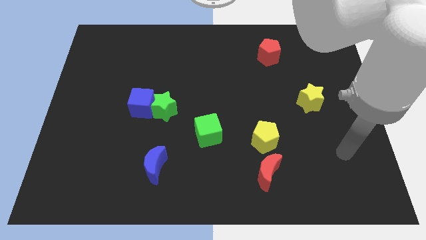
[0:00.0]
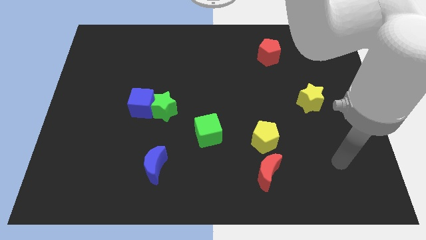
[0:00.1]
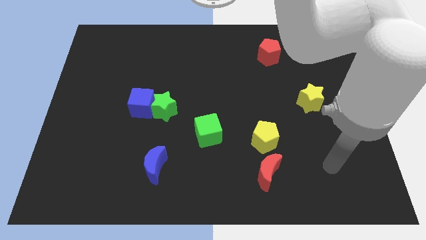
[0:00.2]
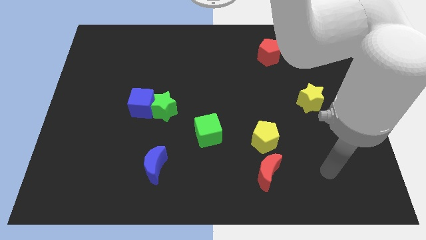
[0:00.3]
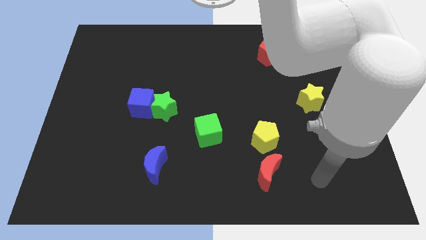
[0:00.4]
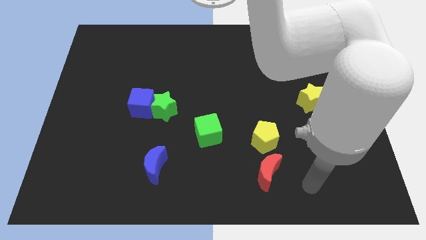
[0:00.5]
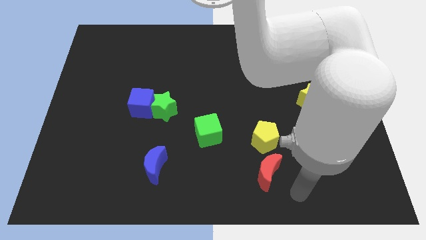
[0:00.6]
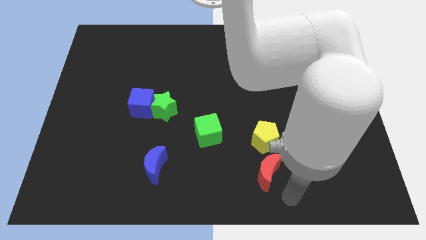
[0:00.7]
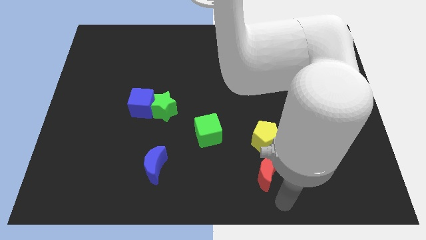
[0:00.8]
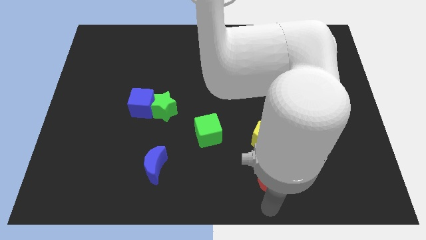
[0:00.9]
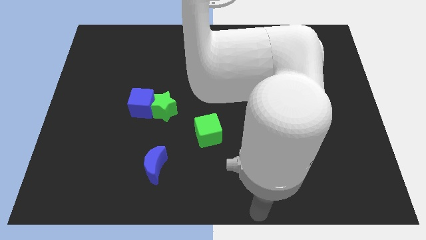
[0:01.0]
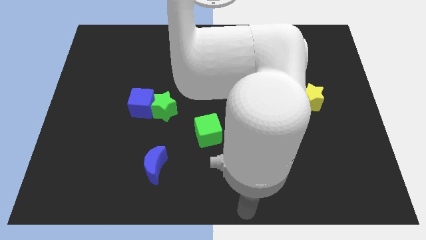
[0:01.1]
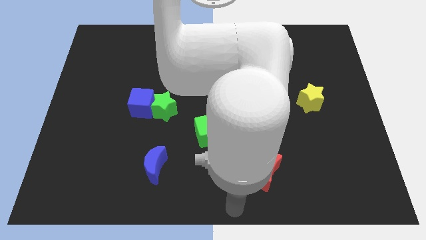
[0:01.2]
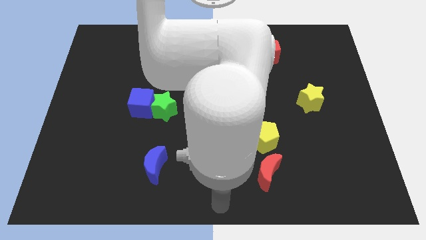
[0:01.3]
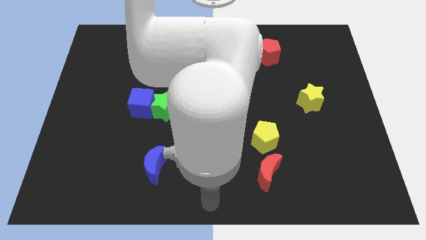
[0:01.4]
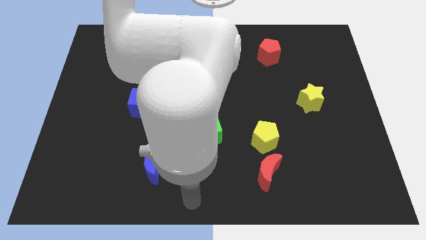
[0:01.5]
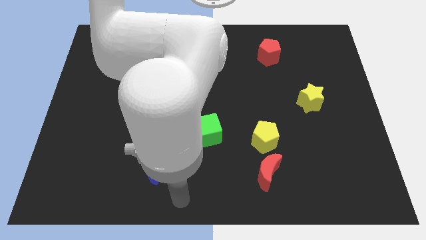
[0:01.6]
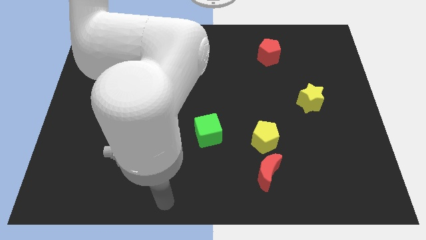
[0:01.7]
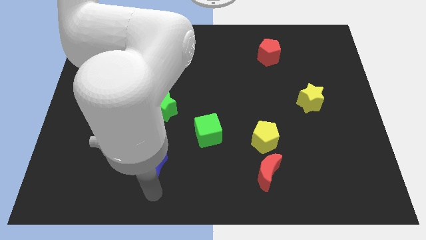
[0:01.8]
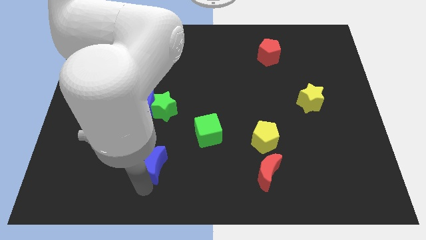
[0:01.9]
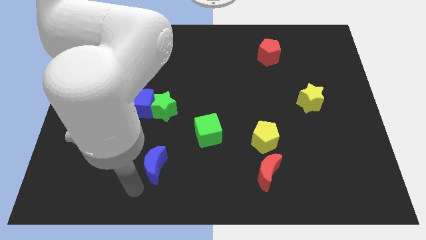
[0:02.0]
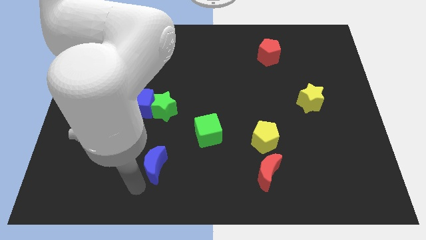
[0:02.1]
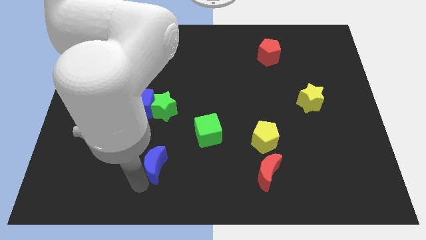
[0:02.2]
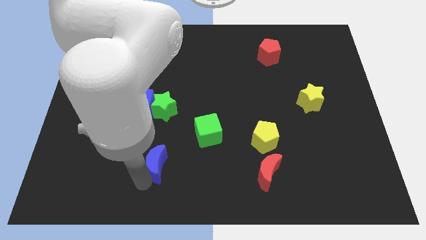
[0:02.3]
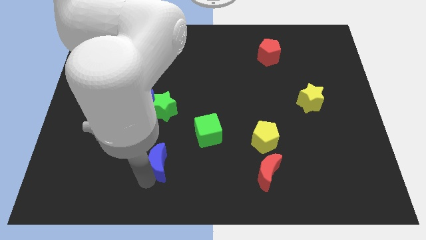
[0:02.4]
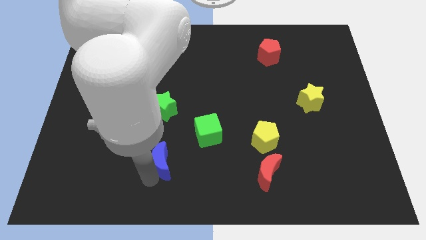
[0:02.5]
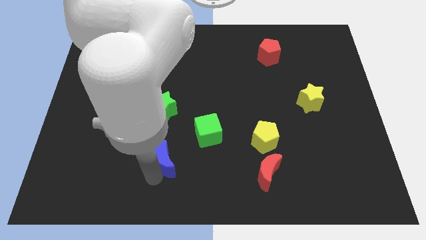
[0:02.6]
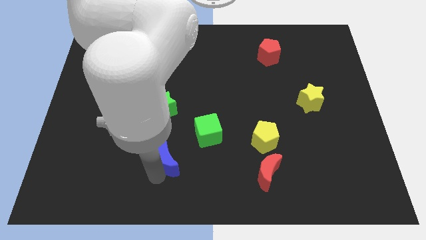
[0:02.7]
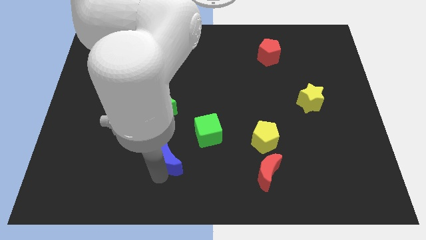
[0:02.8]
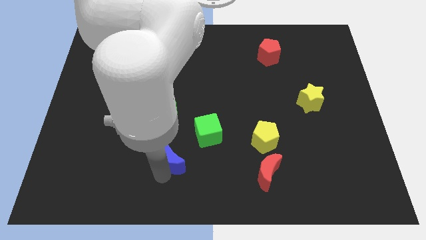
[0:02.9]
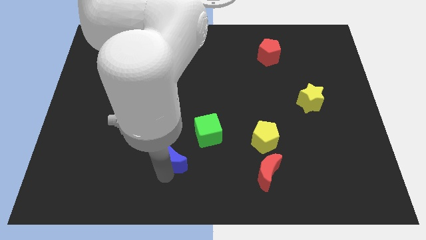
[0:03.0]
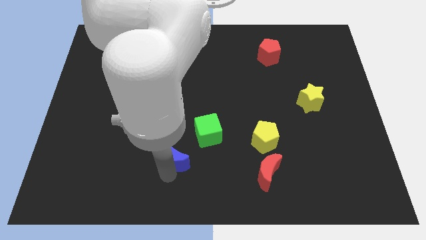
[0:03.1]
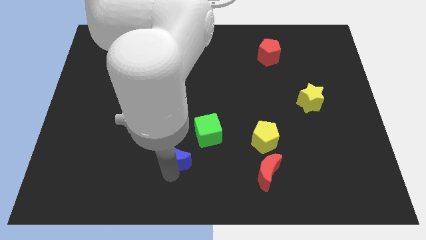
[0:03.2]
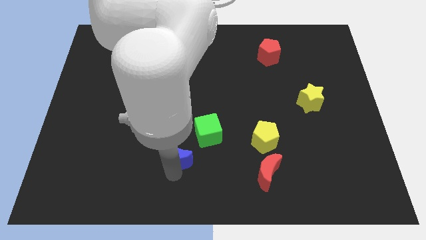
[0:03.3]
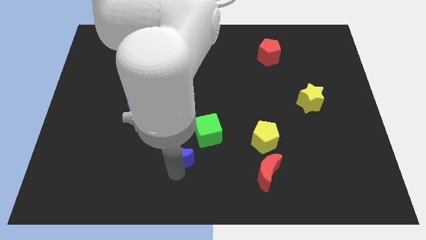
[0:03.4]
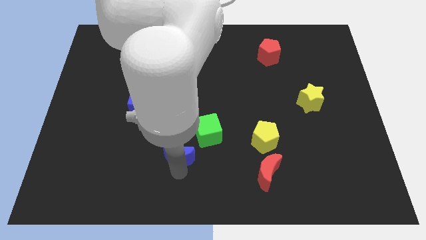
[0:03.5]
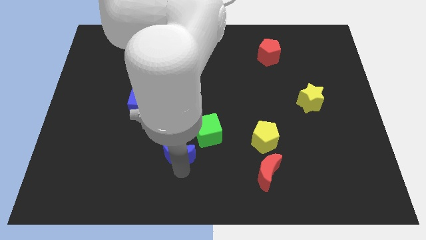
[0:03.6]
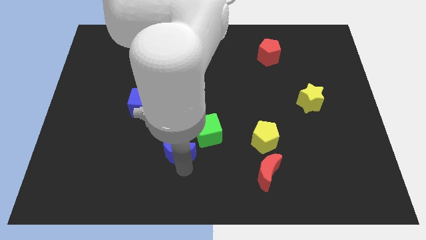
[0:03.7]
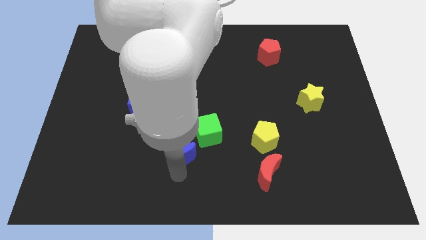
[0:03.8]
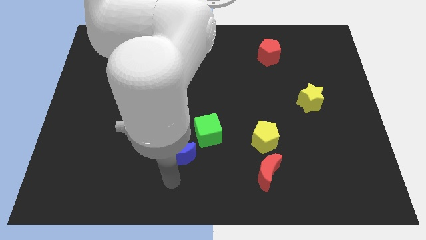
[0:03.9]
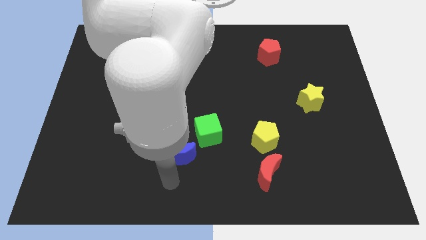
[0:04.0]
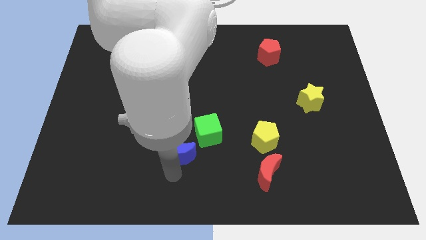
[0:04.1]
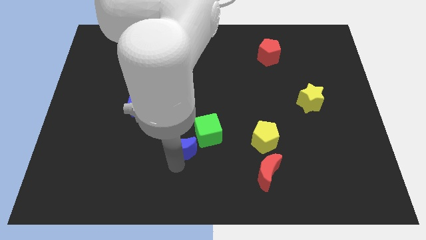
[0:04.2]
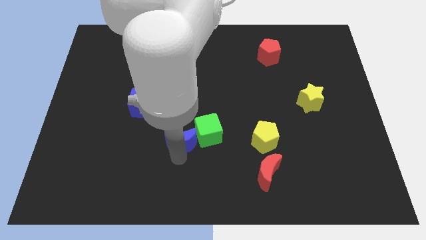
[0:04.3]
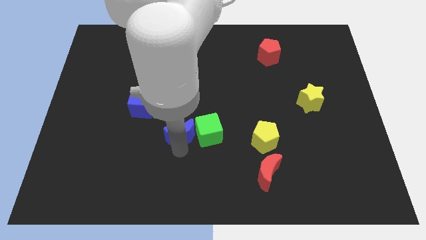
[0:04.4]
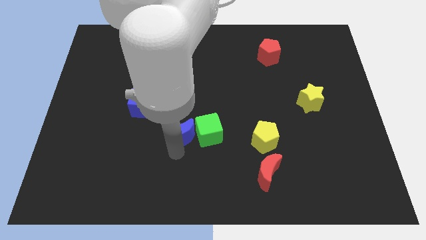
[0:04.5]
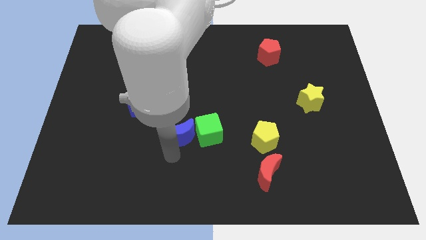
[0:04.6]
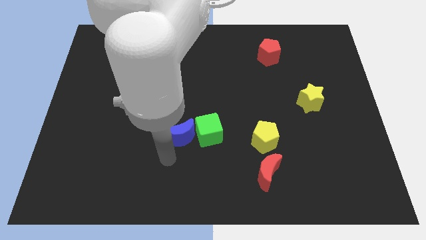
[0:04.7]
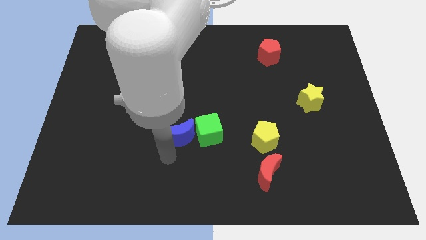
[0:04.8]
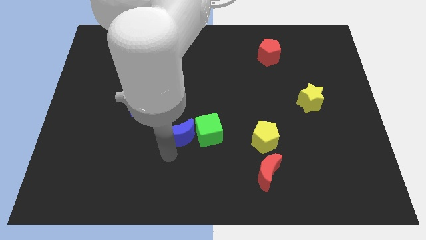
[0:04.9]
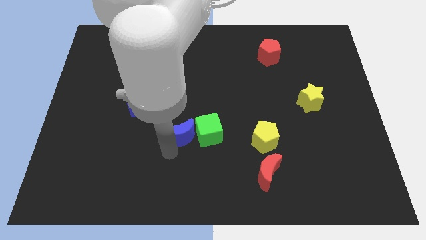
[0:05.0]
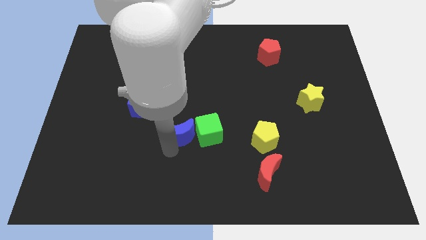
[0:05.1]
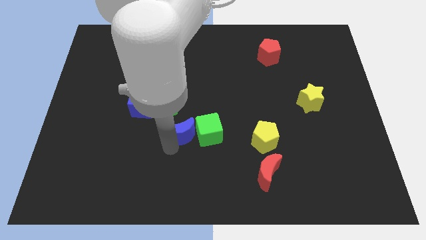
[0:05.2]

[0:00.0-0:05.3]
slide the blue moon a little bit up

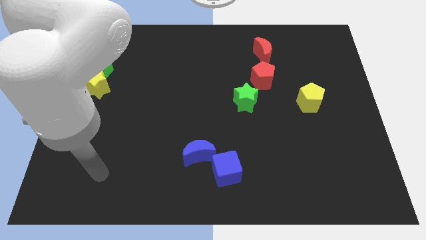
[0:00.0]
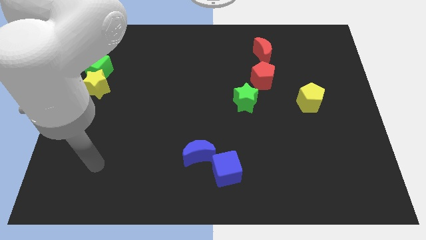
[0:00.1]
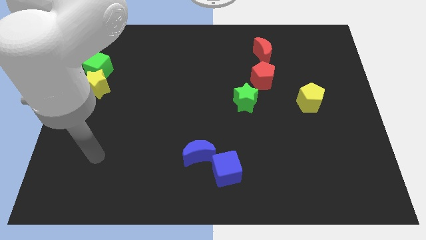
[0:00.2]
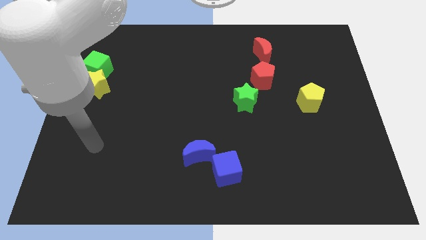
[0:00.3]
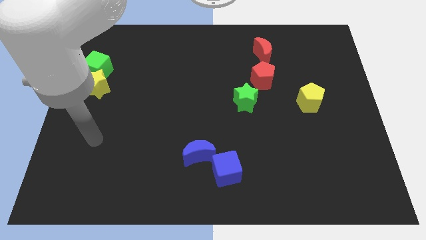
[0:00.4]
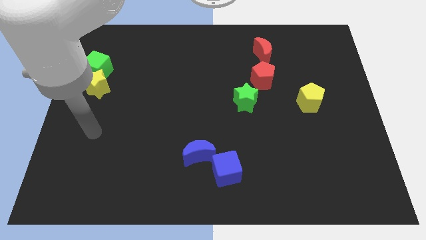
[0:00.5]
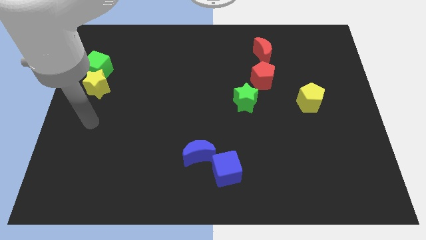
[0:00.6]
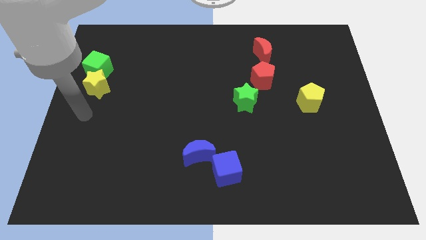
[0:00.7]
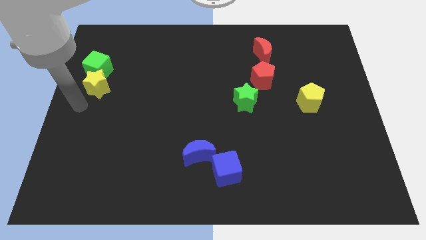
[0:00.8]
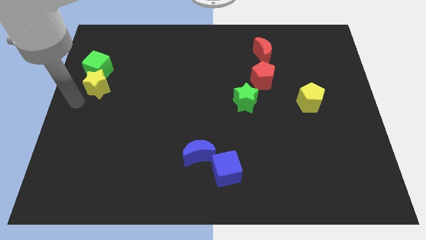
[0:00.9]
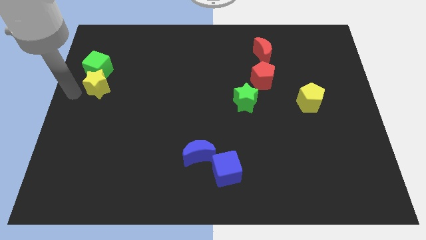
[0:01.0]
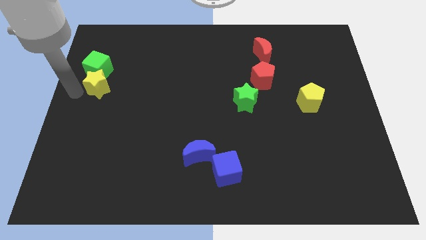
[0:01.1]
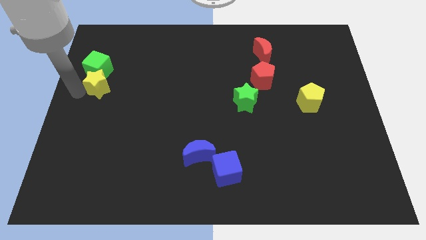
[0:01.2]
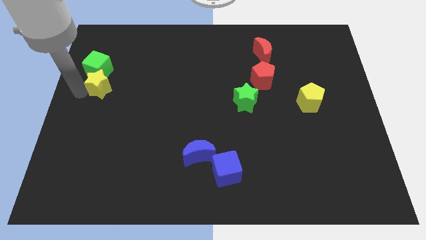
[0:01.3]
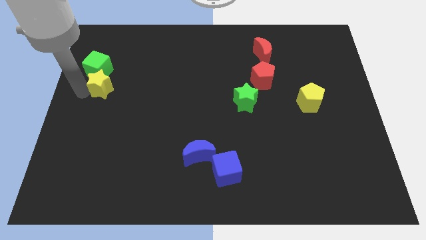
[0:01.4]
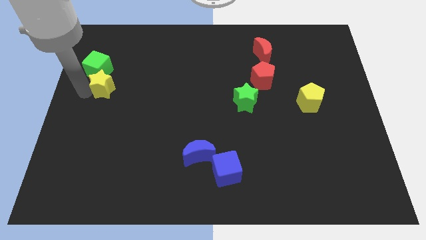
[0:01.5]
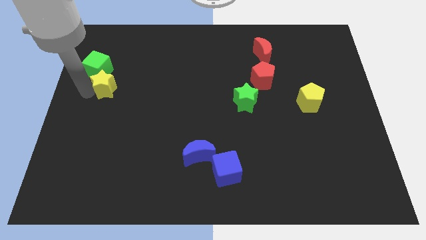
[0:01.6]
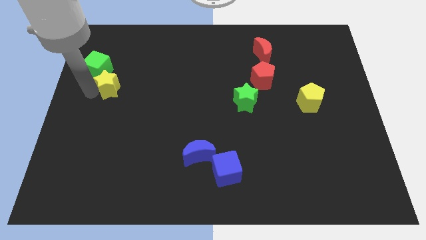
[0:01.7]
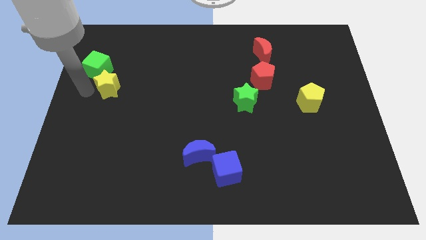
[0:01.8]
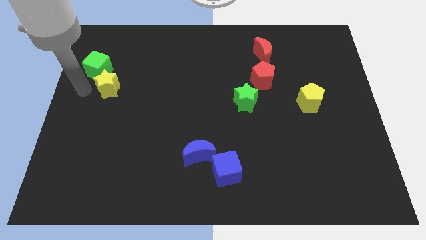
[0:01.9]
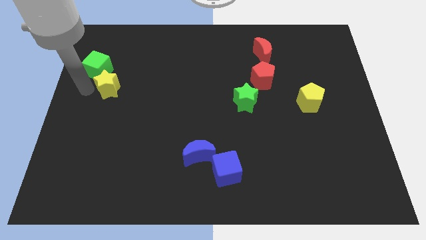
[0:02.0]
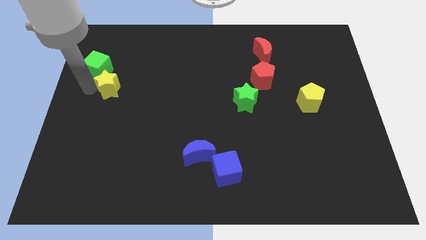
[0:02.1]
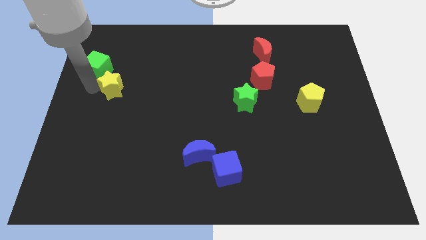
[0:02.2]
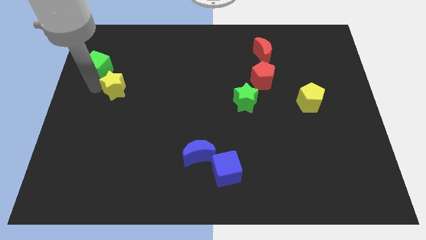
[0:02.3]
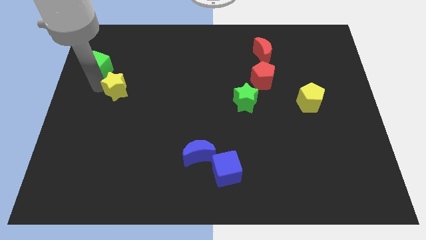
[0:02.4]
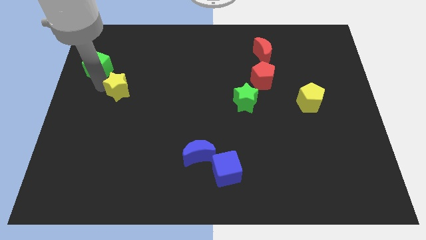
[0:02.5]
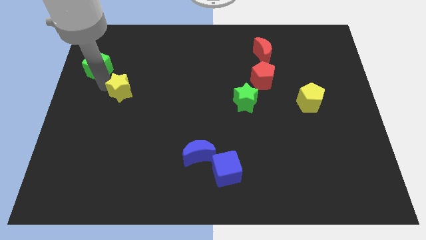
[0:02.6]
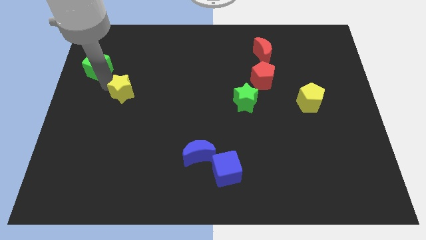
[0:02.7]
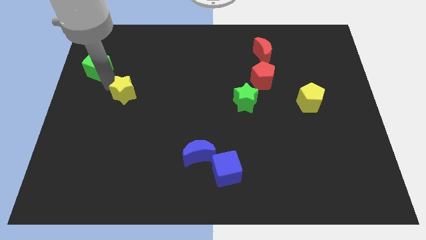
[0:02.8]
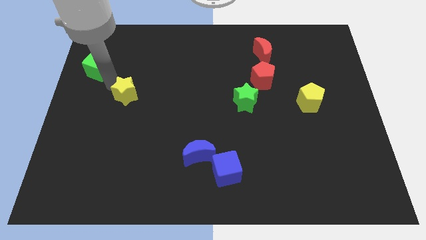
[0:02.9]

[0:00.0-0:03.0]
push the yellow star a bit to the right
